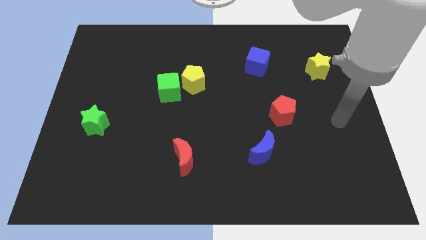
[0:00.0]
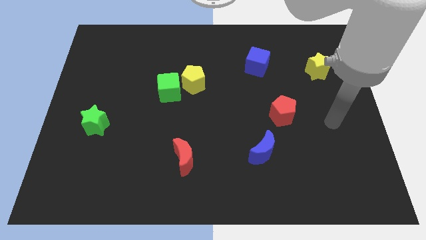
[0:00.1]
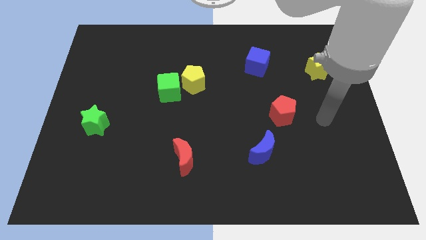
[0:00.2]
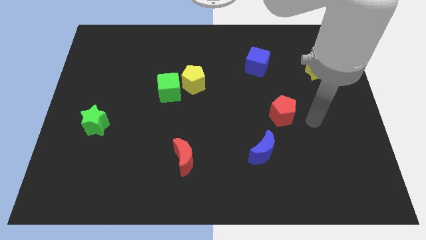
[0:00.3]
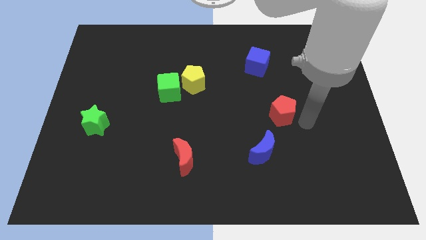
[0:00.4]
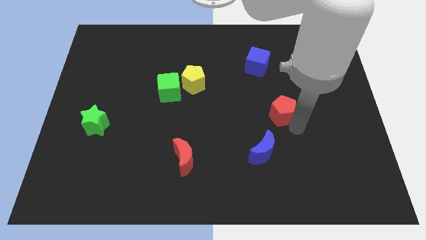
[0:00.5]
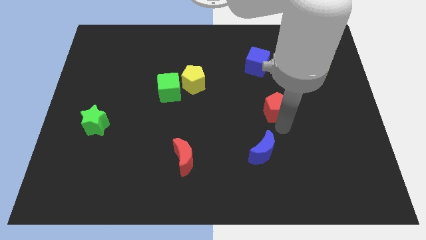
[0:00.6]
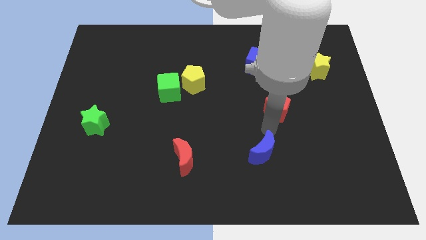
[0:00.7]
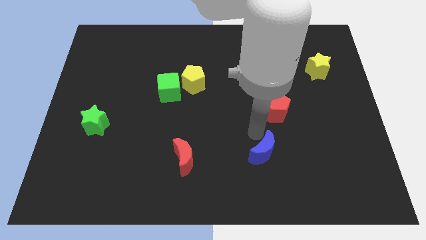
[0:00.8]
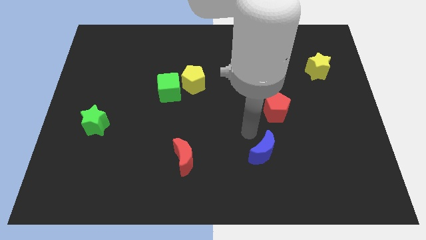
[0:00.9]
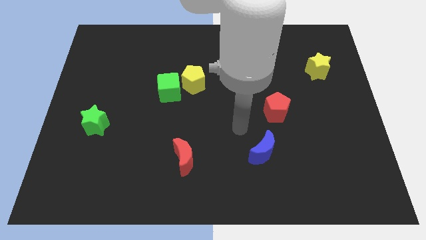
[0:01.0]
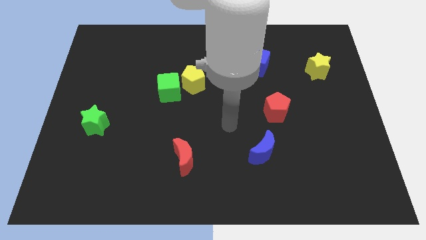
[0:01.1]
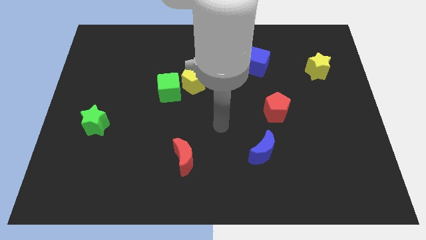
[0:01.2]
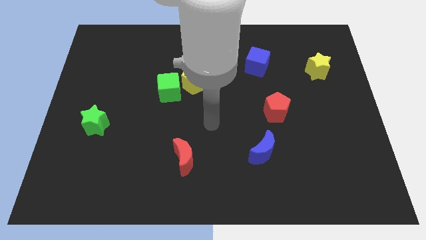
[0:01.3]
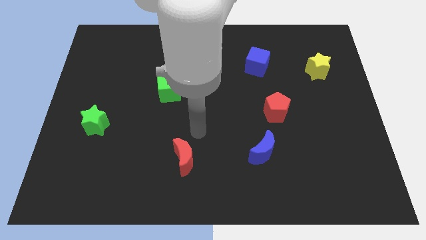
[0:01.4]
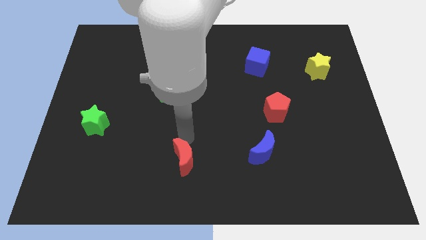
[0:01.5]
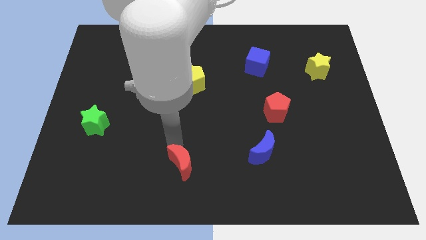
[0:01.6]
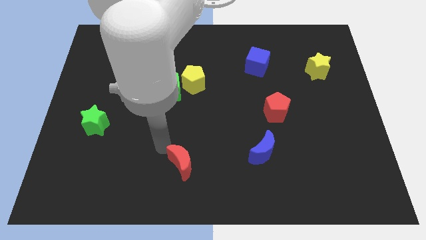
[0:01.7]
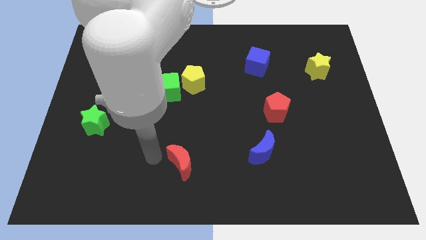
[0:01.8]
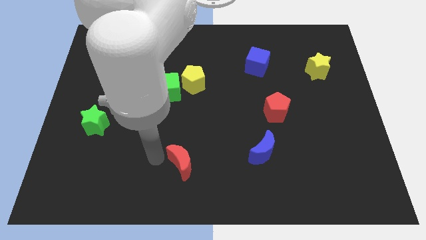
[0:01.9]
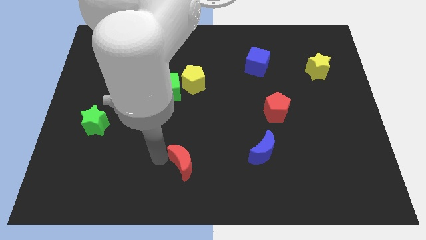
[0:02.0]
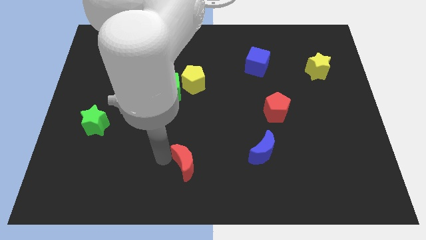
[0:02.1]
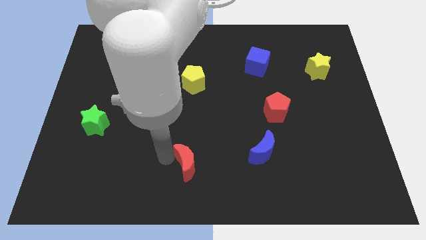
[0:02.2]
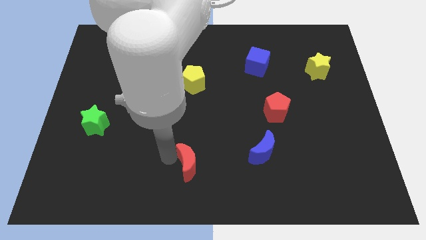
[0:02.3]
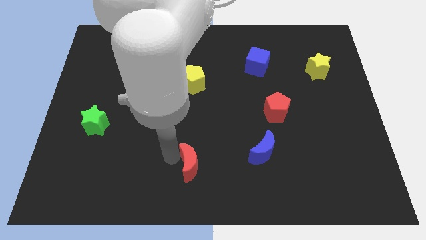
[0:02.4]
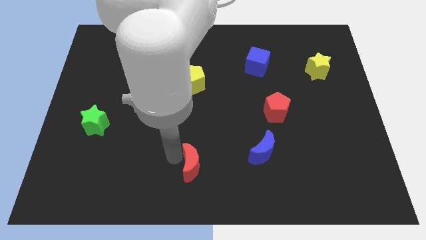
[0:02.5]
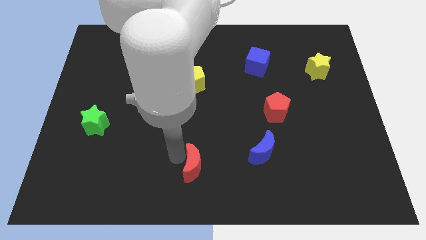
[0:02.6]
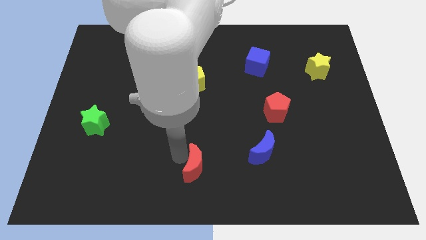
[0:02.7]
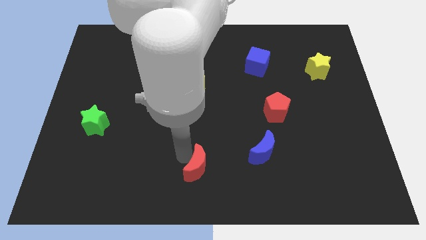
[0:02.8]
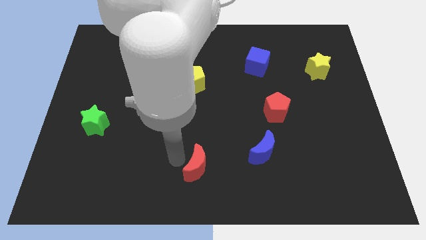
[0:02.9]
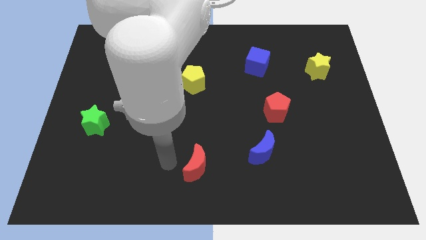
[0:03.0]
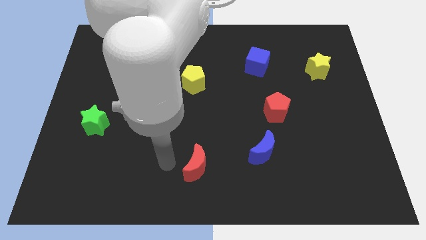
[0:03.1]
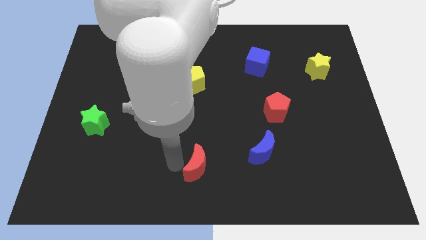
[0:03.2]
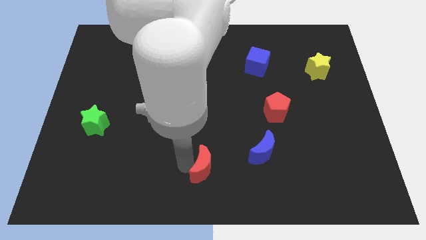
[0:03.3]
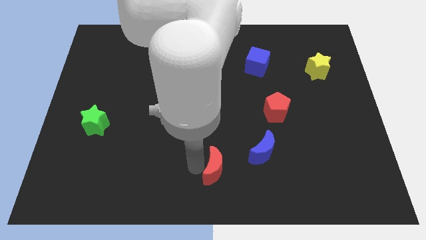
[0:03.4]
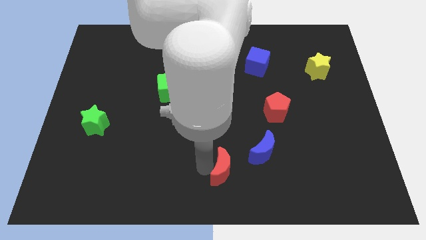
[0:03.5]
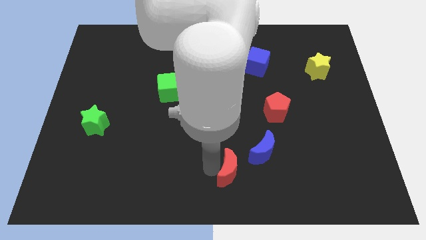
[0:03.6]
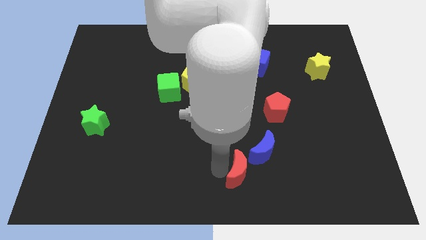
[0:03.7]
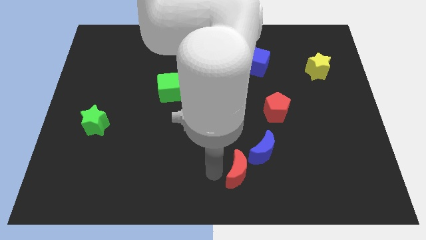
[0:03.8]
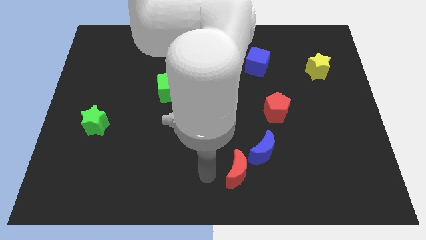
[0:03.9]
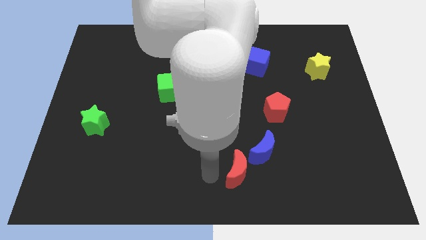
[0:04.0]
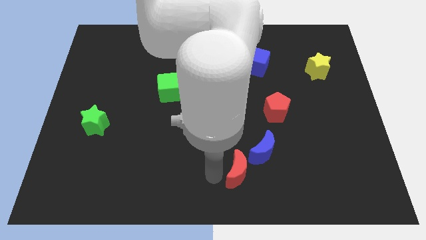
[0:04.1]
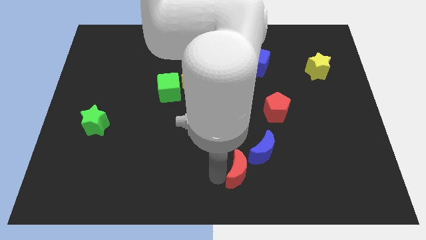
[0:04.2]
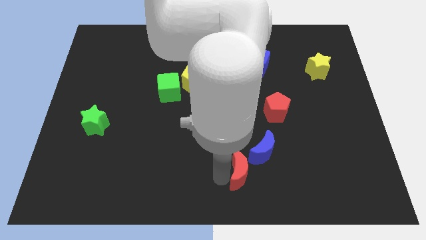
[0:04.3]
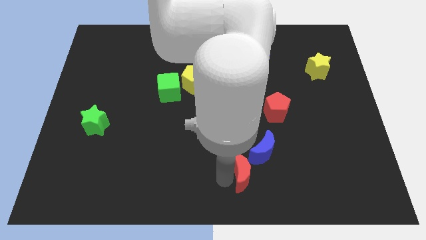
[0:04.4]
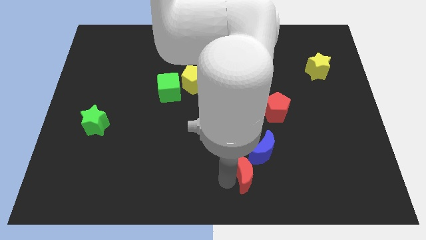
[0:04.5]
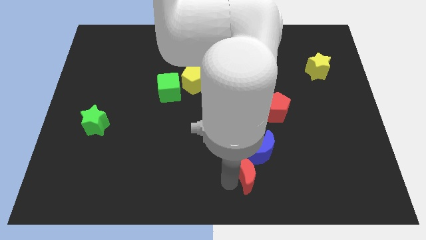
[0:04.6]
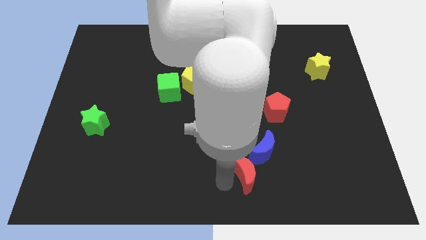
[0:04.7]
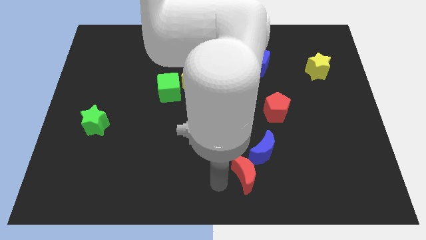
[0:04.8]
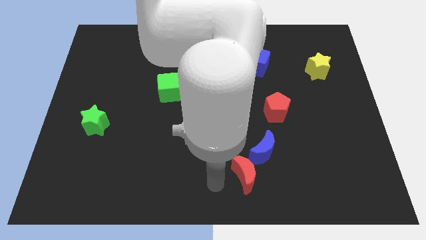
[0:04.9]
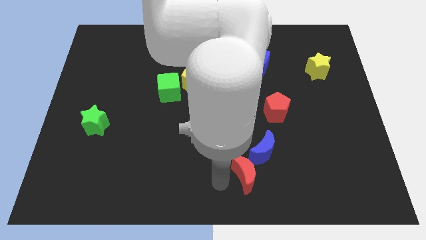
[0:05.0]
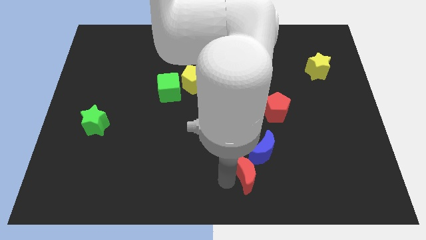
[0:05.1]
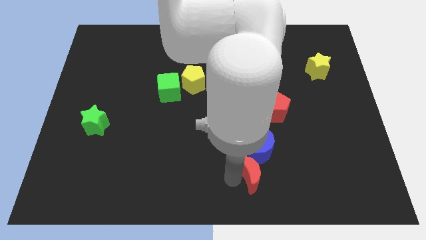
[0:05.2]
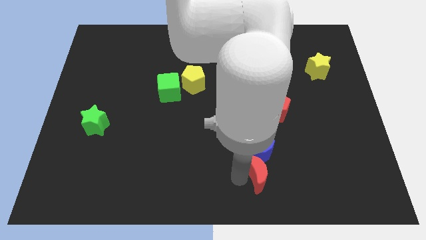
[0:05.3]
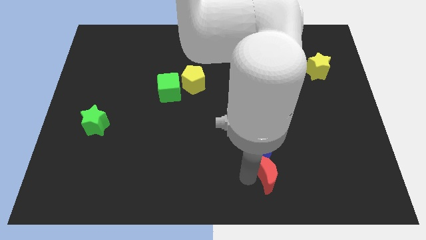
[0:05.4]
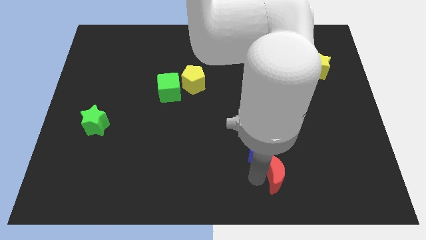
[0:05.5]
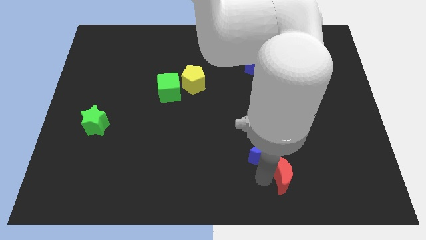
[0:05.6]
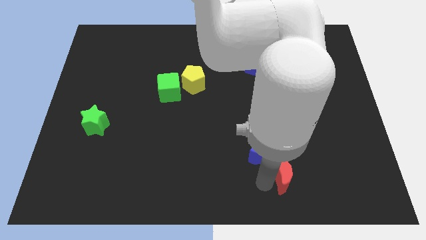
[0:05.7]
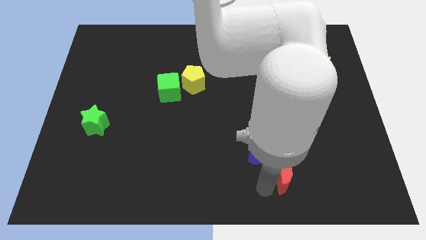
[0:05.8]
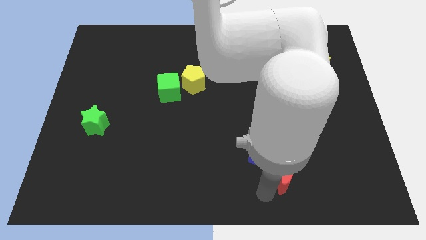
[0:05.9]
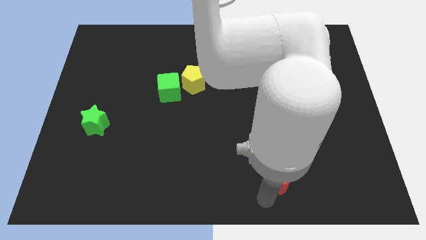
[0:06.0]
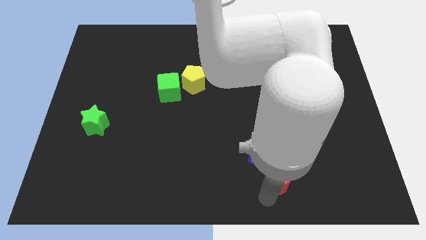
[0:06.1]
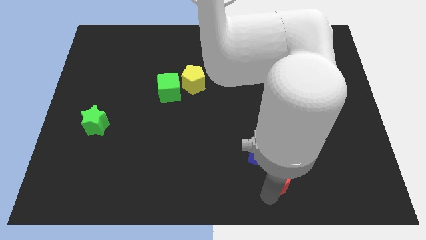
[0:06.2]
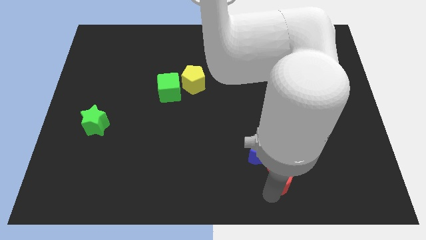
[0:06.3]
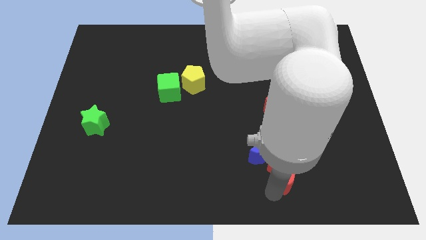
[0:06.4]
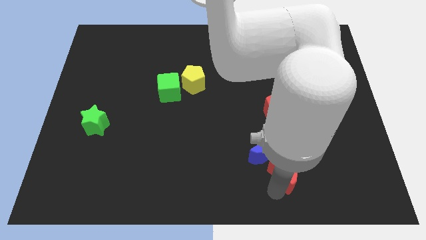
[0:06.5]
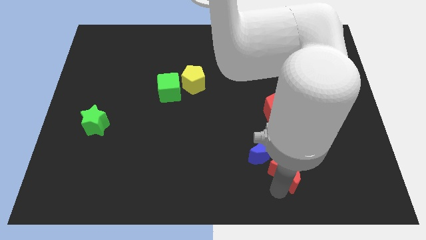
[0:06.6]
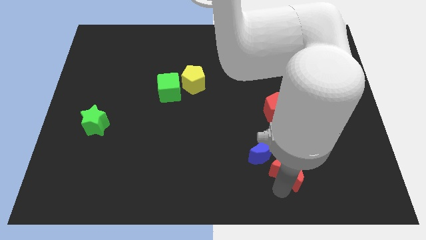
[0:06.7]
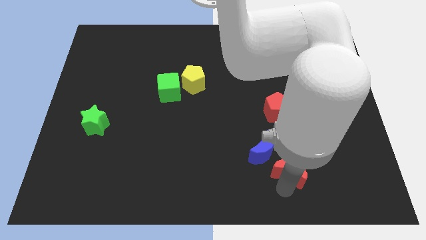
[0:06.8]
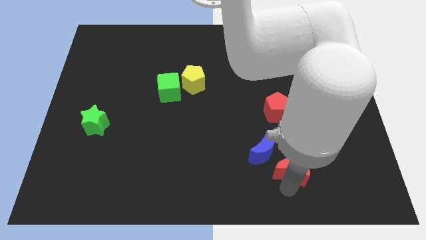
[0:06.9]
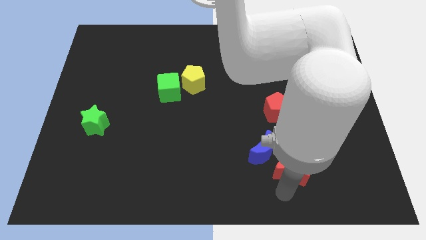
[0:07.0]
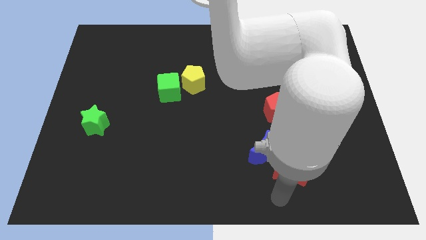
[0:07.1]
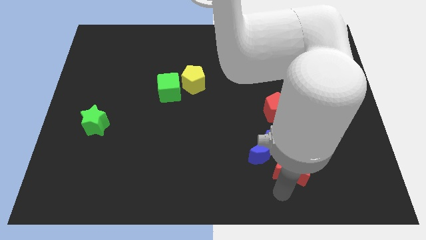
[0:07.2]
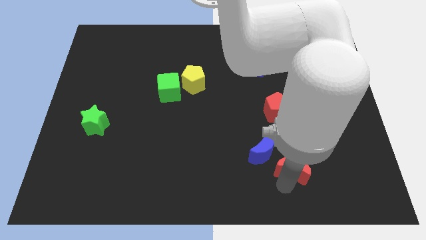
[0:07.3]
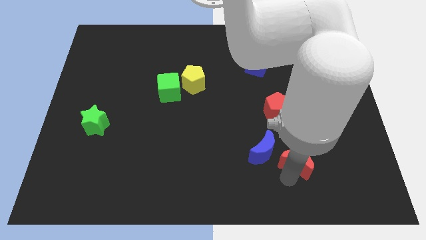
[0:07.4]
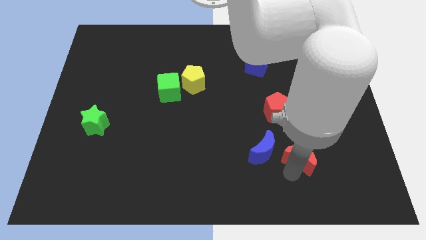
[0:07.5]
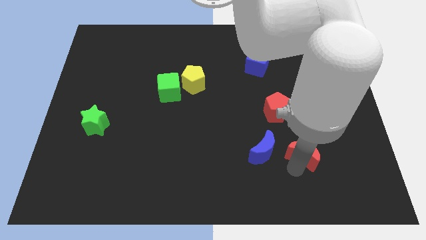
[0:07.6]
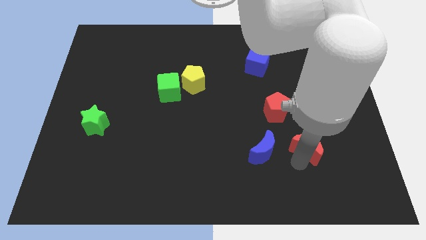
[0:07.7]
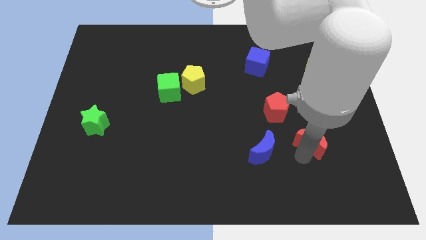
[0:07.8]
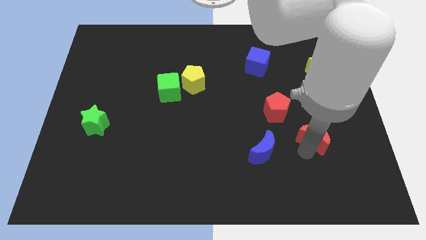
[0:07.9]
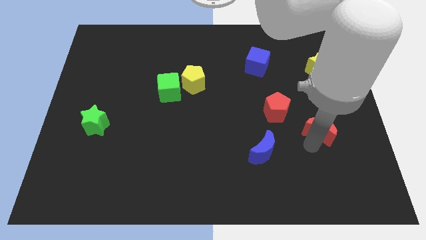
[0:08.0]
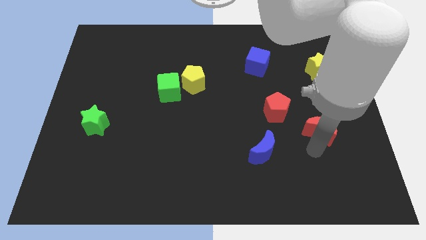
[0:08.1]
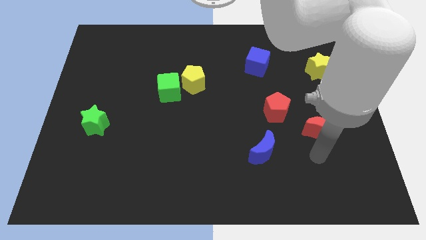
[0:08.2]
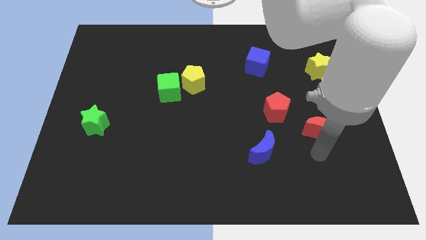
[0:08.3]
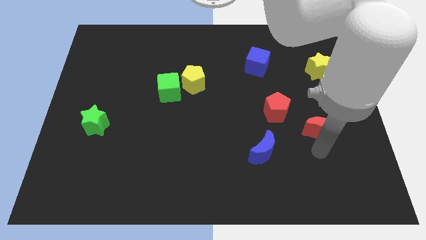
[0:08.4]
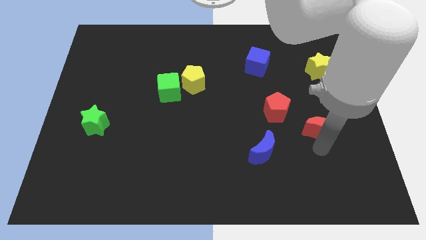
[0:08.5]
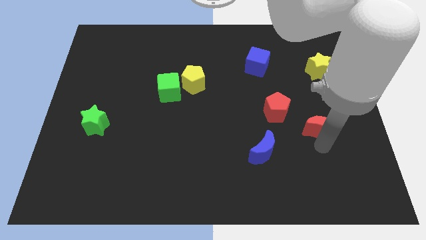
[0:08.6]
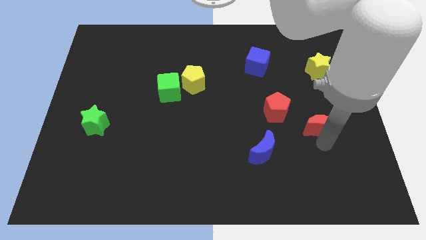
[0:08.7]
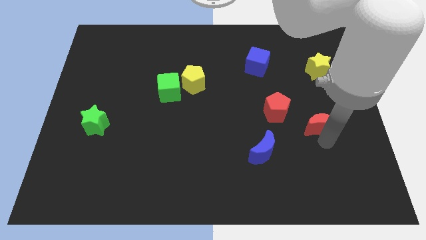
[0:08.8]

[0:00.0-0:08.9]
push the red moon to the right side of the red pentagon
